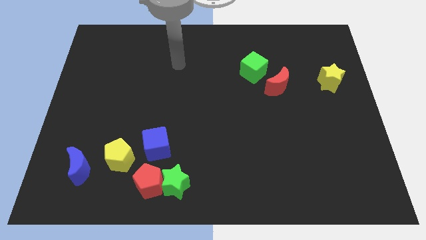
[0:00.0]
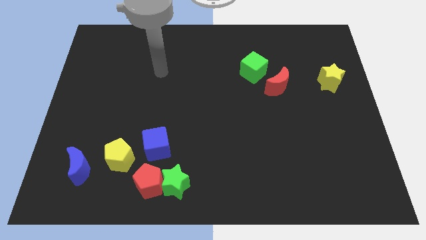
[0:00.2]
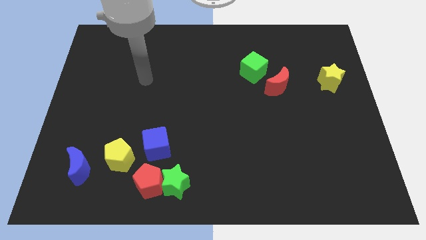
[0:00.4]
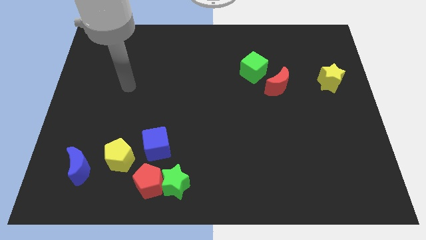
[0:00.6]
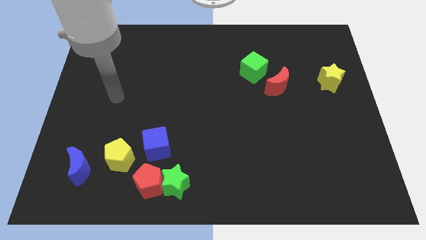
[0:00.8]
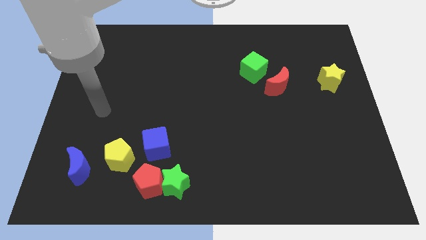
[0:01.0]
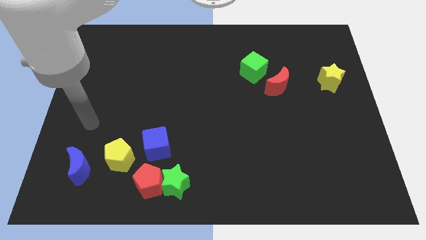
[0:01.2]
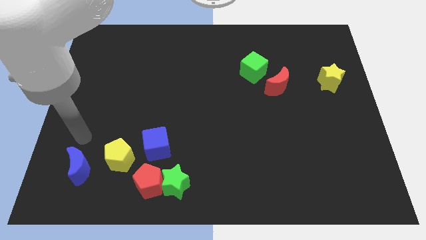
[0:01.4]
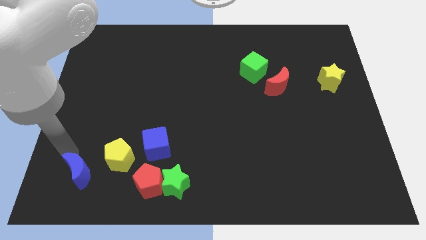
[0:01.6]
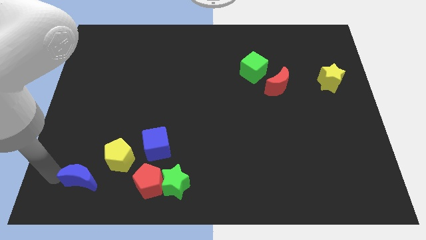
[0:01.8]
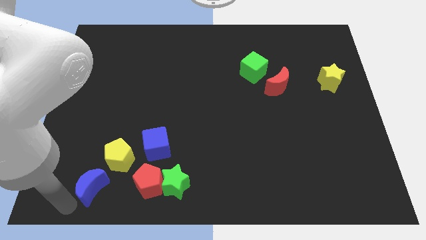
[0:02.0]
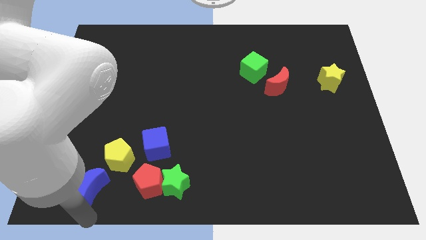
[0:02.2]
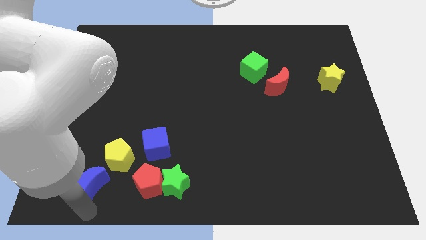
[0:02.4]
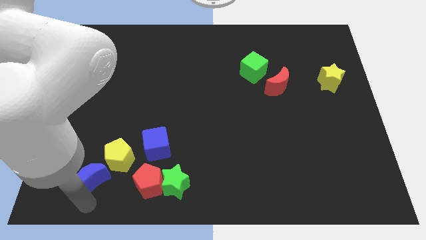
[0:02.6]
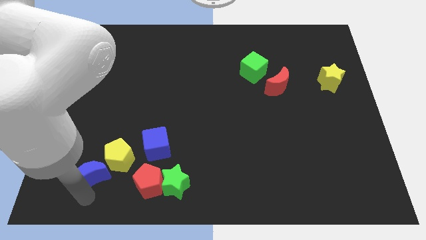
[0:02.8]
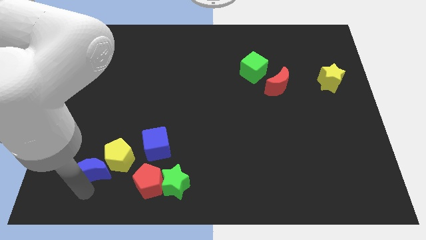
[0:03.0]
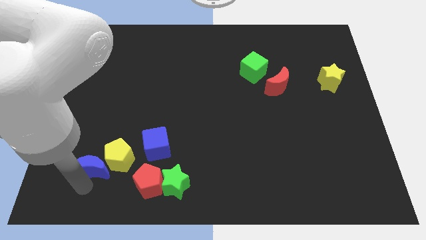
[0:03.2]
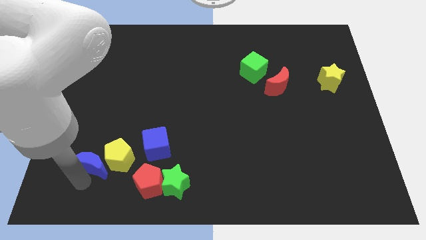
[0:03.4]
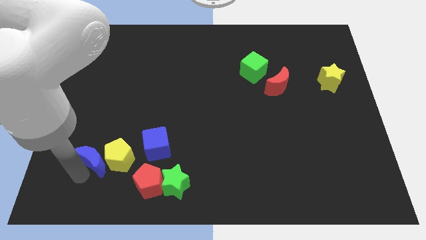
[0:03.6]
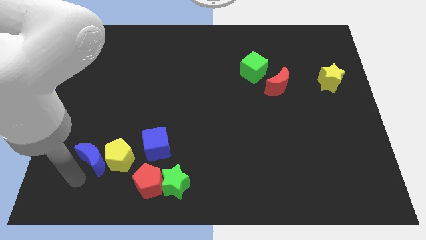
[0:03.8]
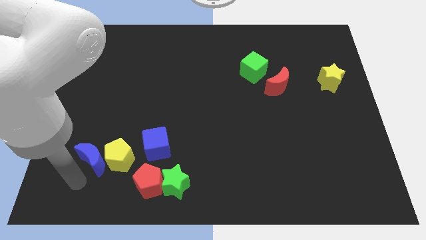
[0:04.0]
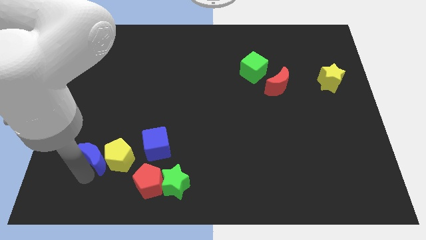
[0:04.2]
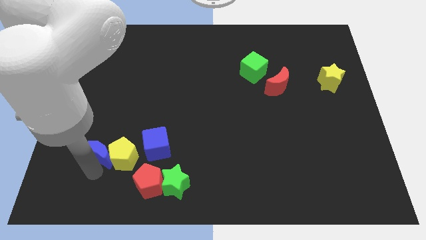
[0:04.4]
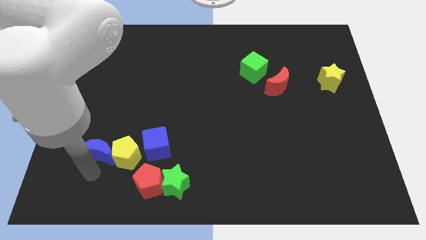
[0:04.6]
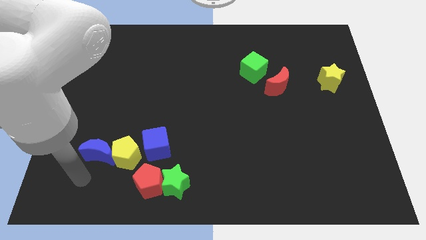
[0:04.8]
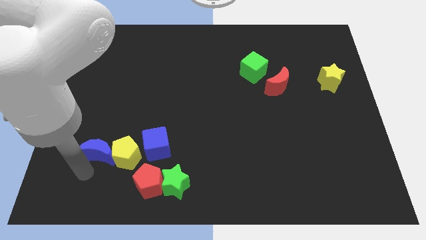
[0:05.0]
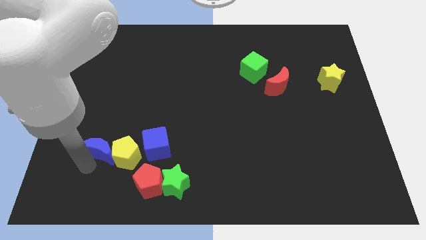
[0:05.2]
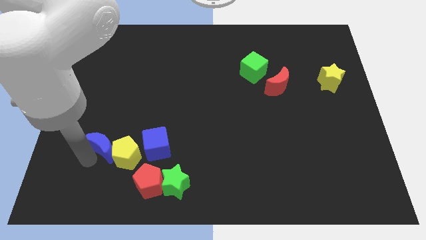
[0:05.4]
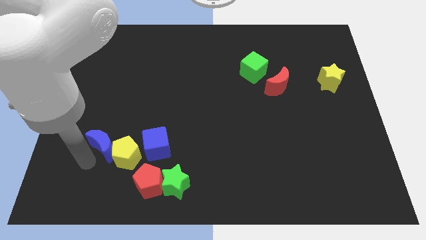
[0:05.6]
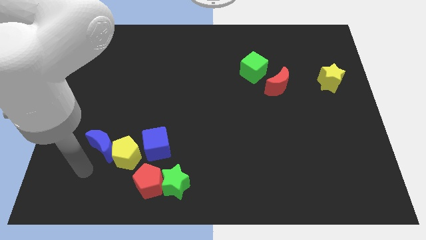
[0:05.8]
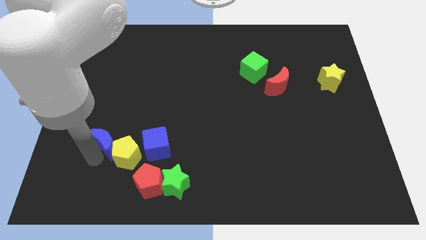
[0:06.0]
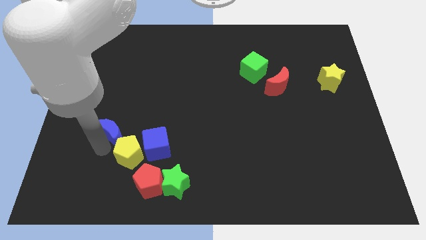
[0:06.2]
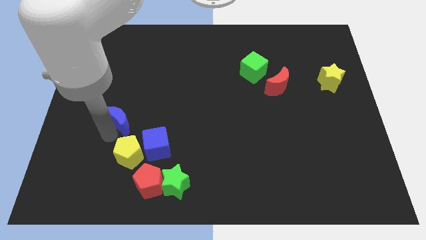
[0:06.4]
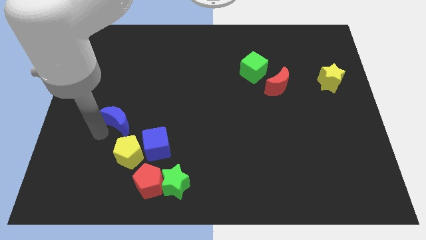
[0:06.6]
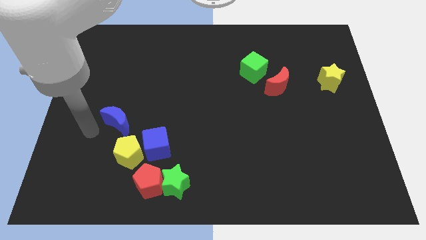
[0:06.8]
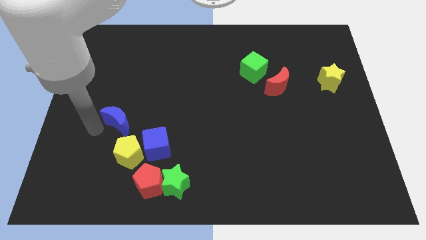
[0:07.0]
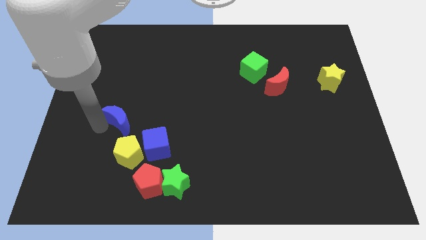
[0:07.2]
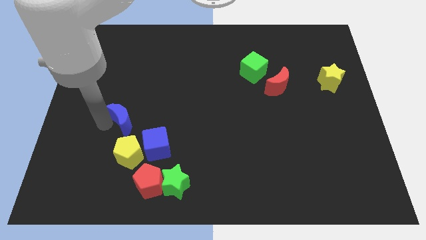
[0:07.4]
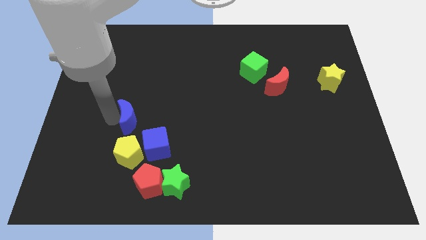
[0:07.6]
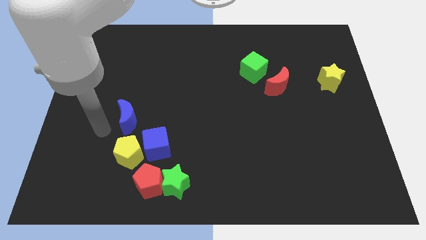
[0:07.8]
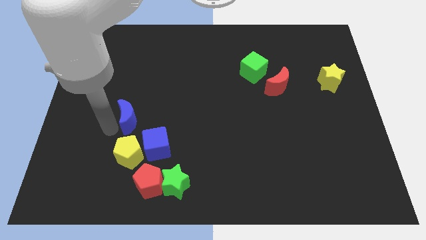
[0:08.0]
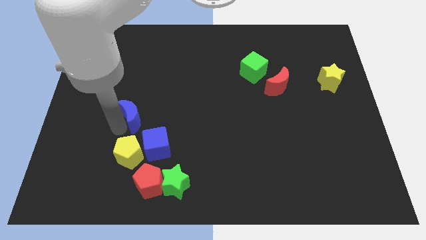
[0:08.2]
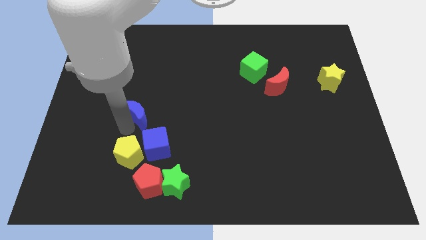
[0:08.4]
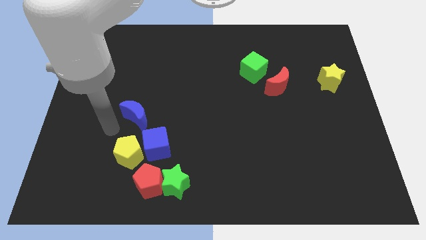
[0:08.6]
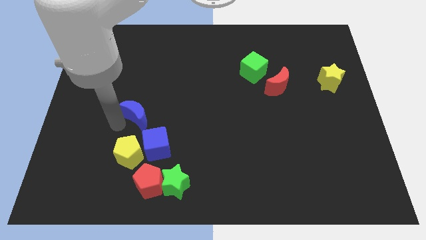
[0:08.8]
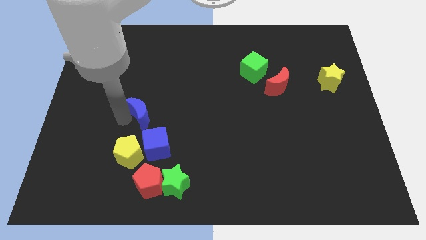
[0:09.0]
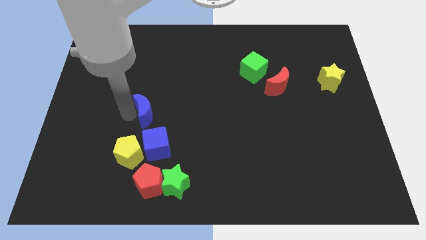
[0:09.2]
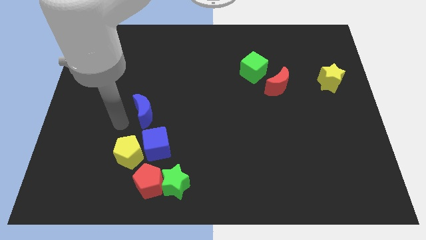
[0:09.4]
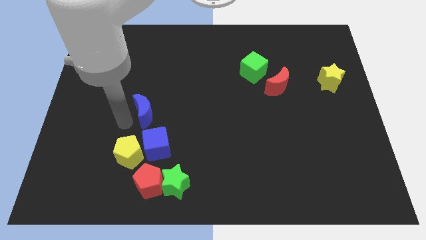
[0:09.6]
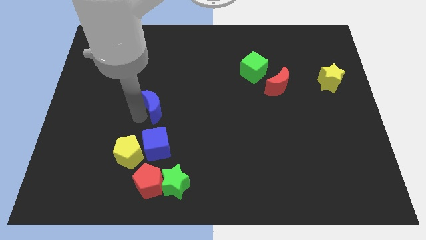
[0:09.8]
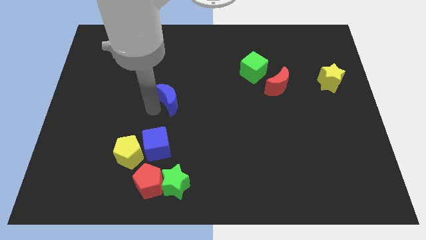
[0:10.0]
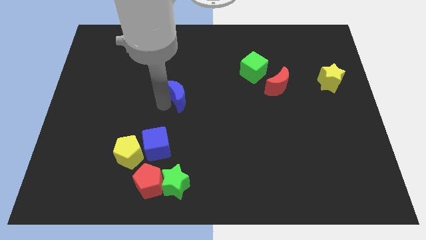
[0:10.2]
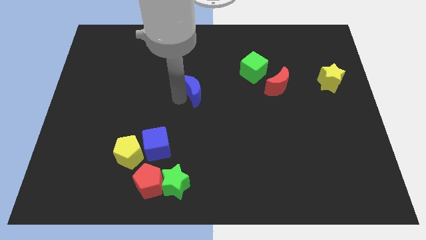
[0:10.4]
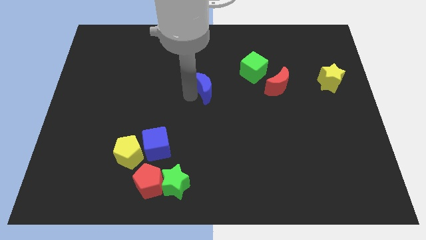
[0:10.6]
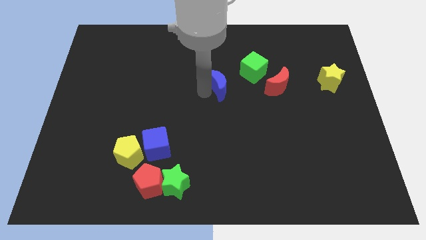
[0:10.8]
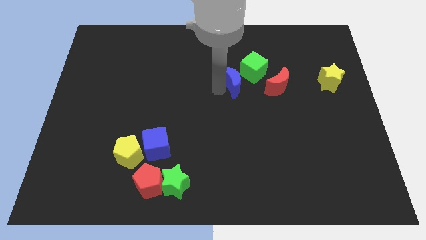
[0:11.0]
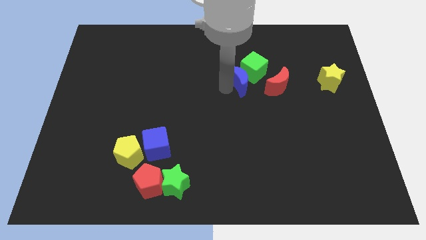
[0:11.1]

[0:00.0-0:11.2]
push the blue moon to the green cube

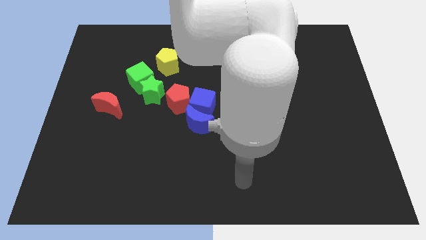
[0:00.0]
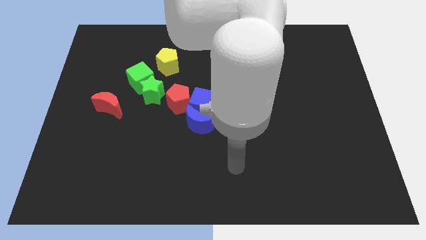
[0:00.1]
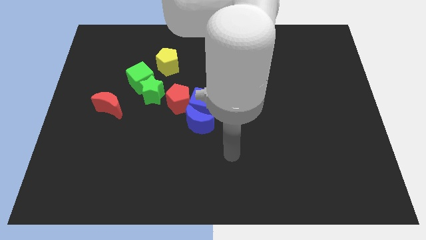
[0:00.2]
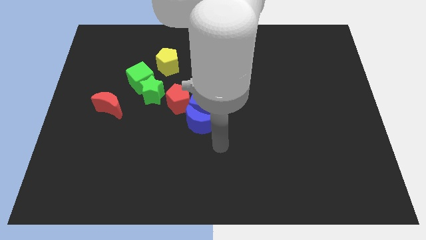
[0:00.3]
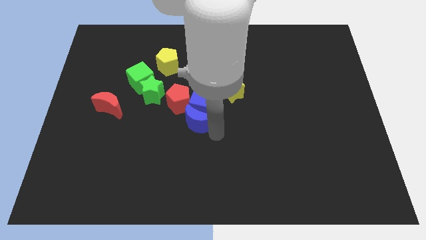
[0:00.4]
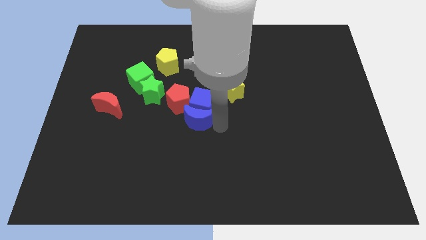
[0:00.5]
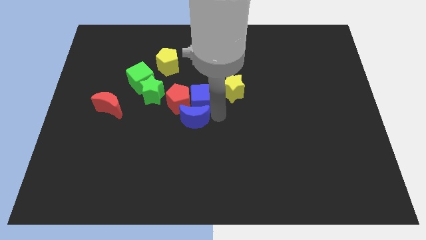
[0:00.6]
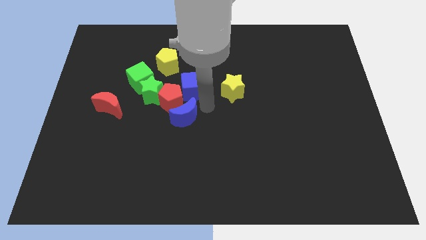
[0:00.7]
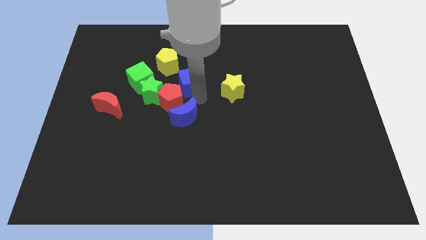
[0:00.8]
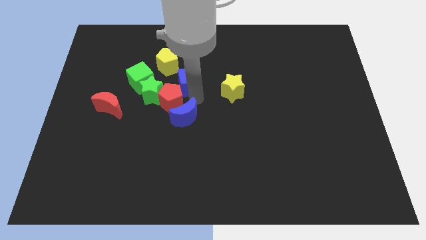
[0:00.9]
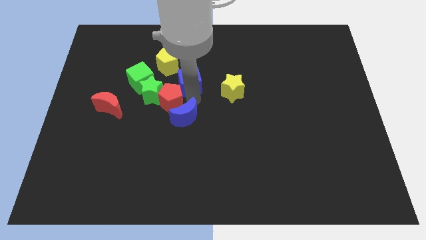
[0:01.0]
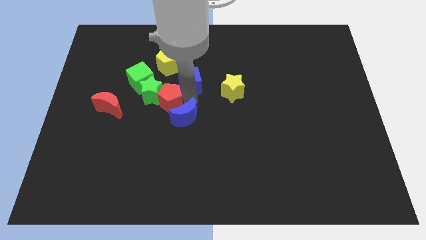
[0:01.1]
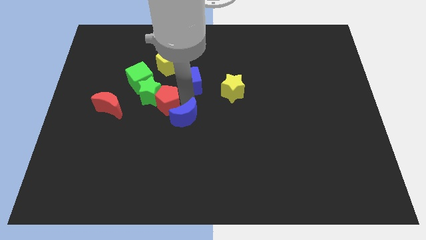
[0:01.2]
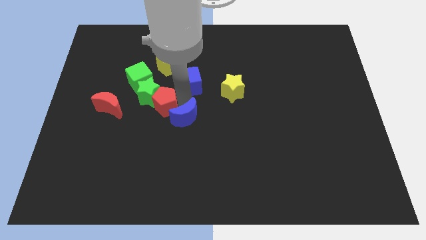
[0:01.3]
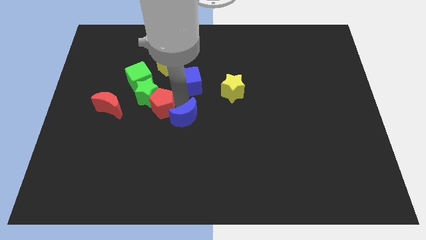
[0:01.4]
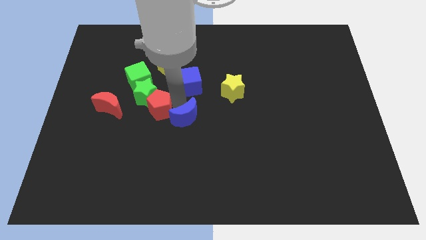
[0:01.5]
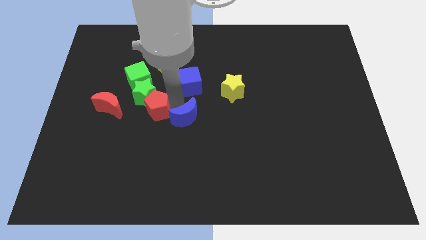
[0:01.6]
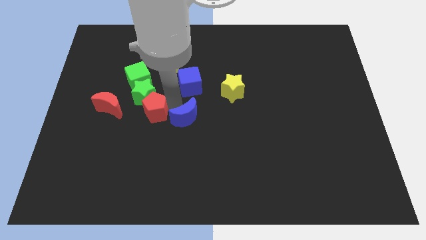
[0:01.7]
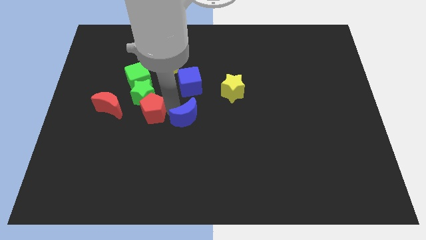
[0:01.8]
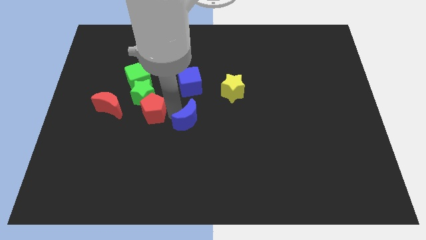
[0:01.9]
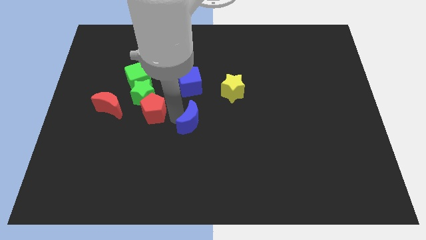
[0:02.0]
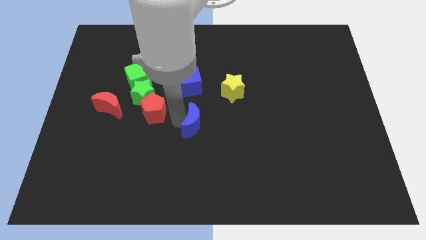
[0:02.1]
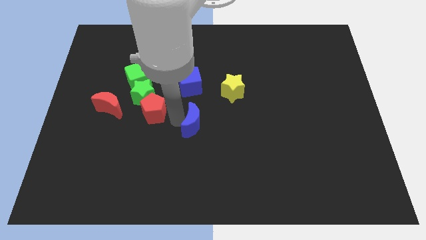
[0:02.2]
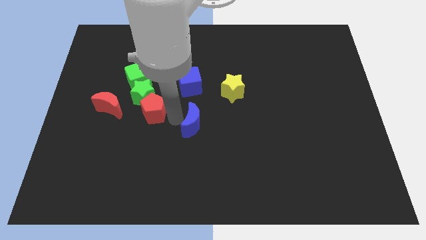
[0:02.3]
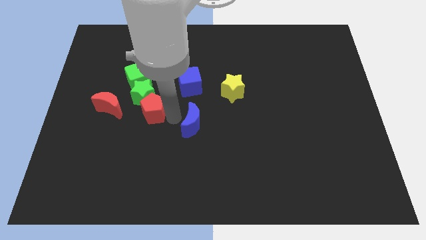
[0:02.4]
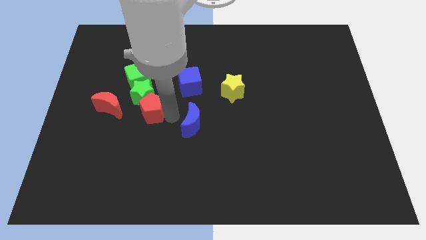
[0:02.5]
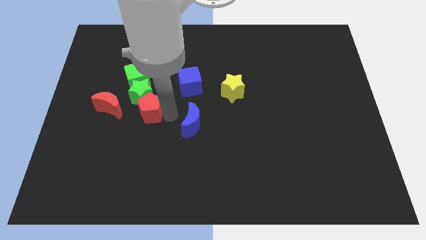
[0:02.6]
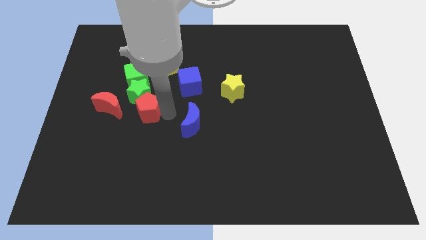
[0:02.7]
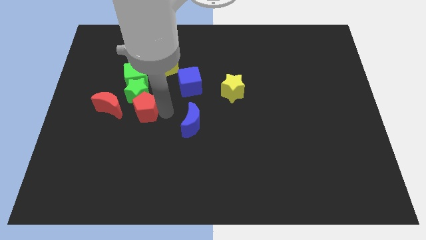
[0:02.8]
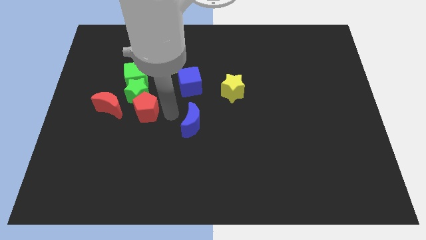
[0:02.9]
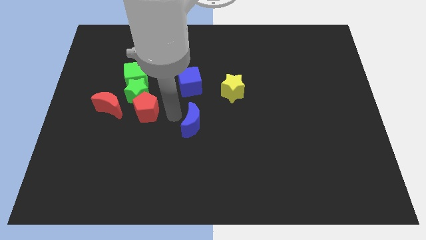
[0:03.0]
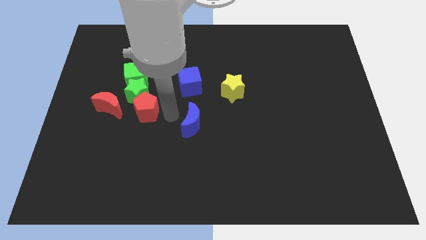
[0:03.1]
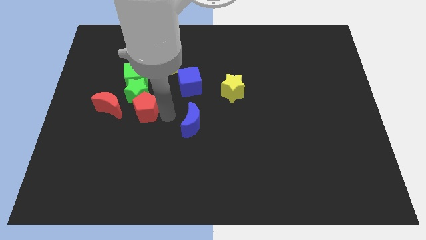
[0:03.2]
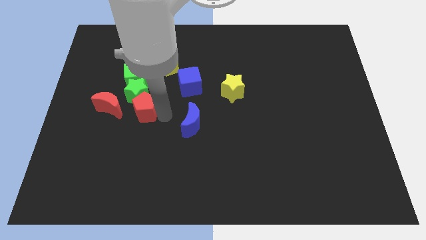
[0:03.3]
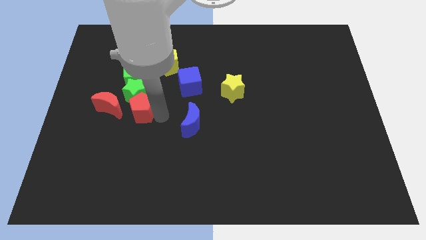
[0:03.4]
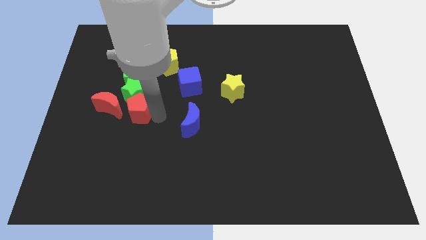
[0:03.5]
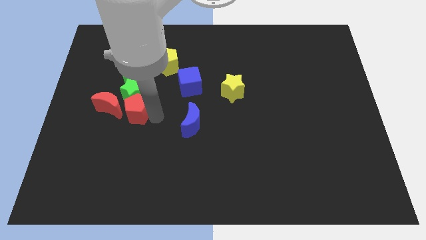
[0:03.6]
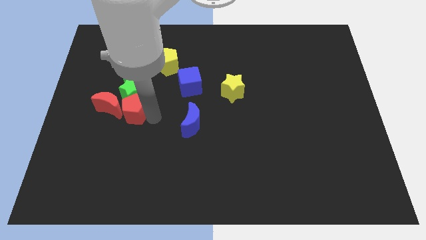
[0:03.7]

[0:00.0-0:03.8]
move the red pentagon to the red moon
